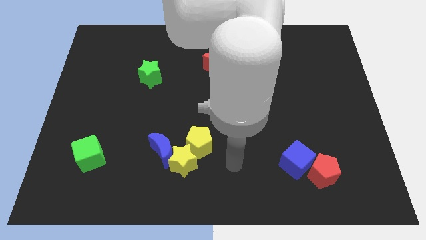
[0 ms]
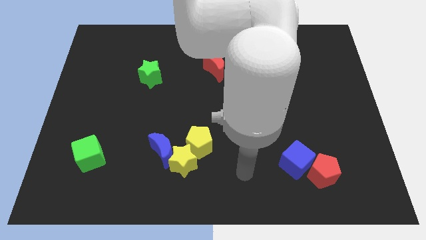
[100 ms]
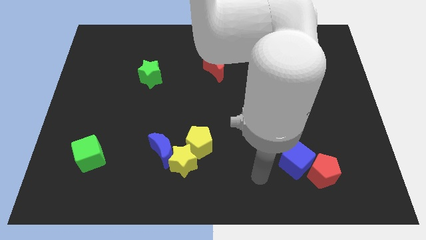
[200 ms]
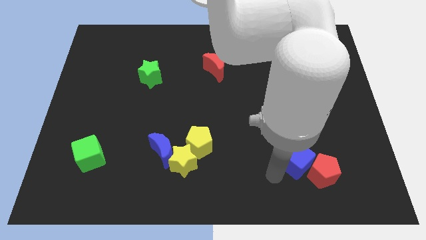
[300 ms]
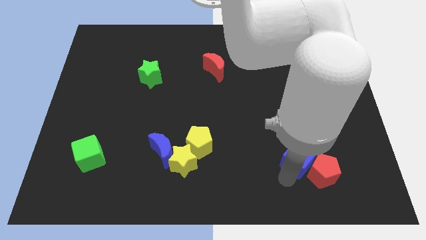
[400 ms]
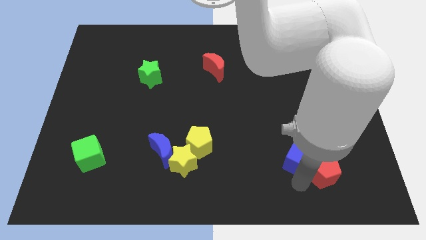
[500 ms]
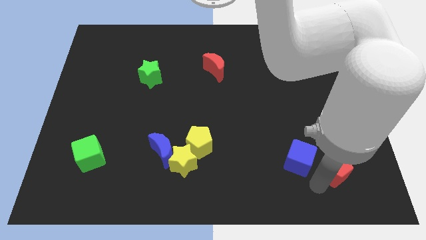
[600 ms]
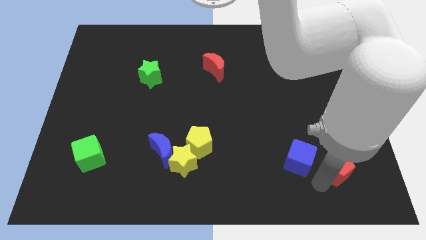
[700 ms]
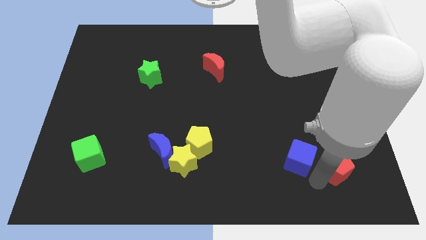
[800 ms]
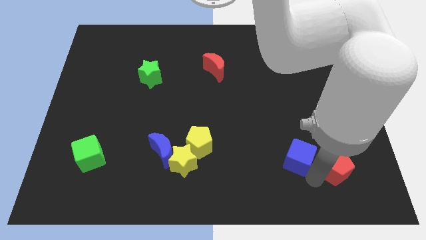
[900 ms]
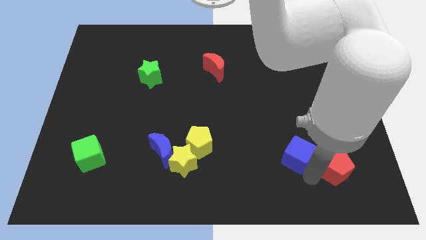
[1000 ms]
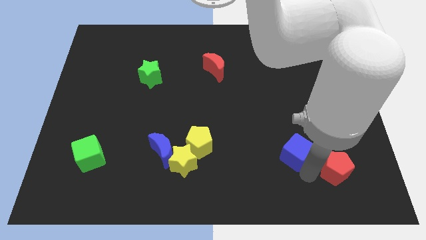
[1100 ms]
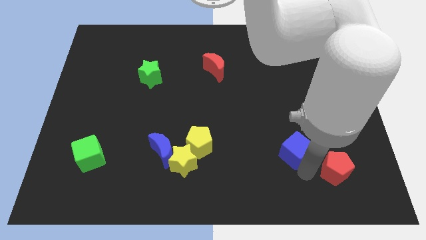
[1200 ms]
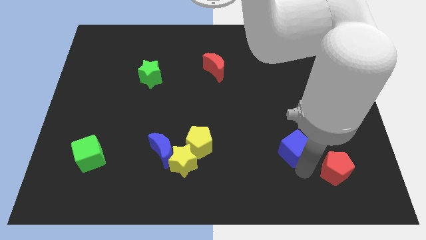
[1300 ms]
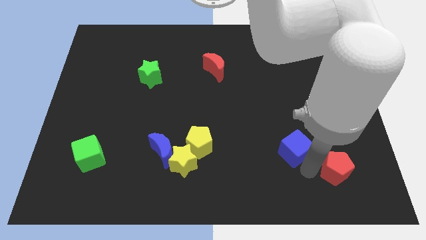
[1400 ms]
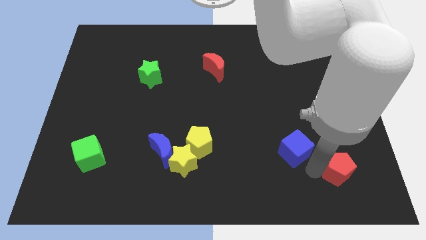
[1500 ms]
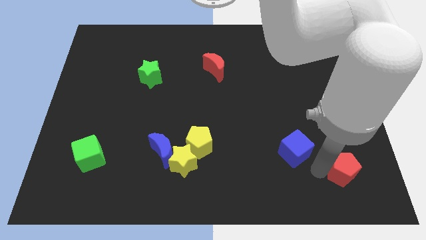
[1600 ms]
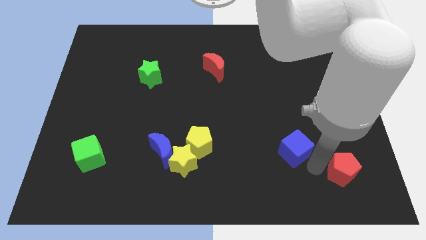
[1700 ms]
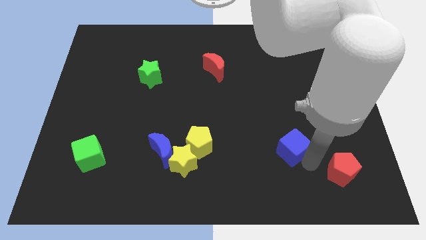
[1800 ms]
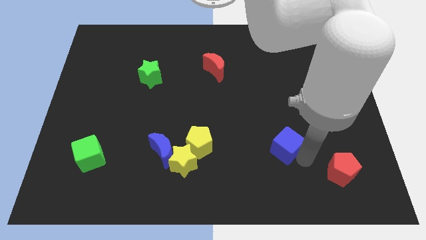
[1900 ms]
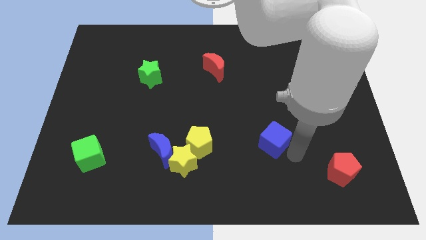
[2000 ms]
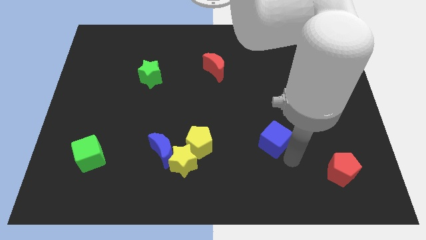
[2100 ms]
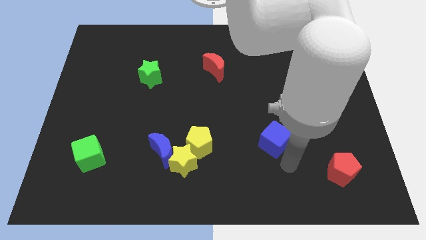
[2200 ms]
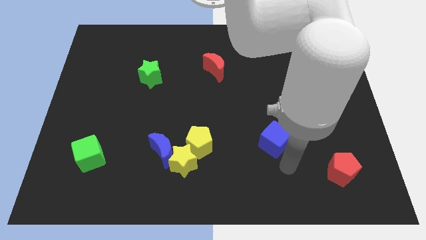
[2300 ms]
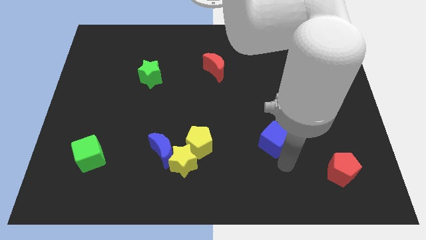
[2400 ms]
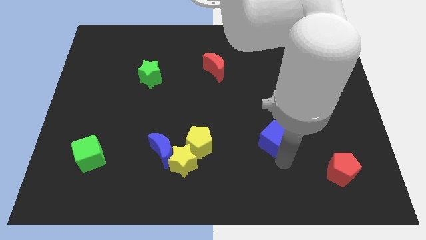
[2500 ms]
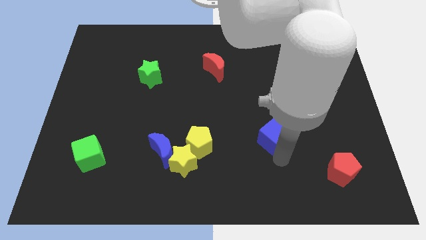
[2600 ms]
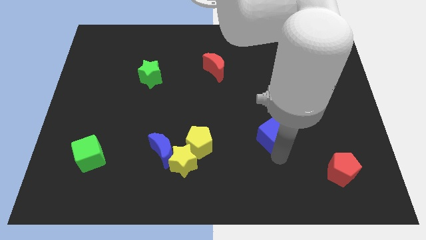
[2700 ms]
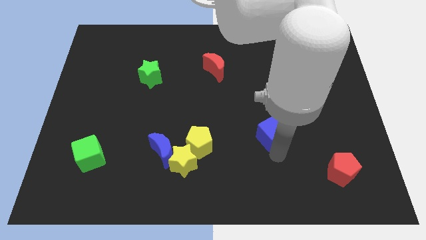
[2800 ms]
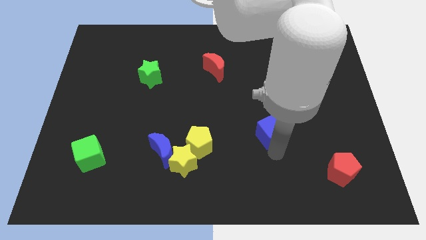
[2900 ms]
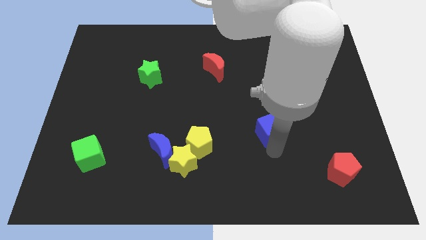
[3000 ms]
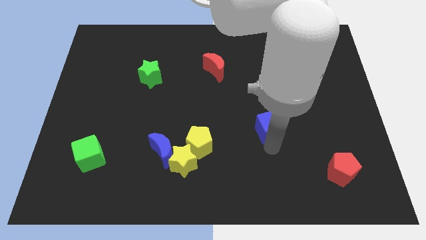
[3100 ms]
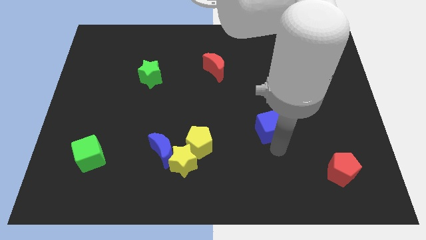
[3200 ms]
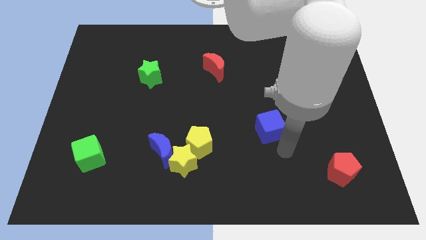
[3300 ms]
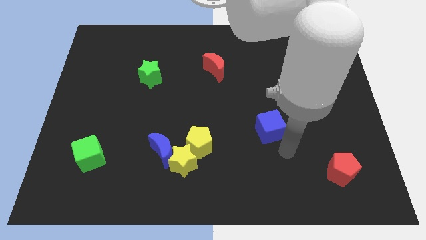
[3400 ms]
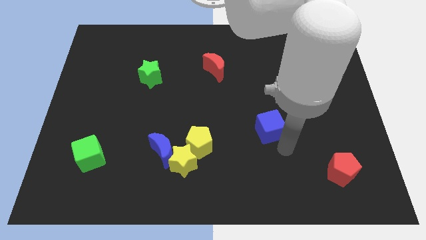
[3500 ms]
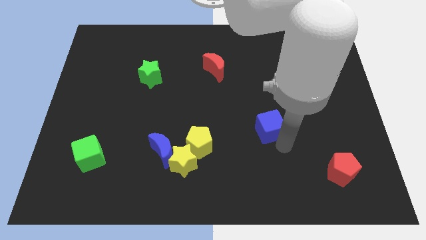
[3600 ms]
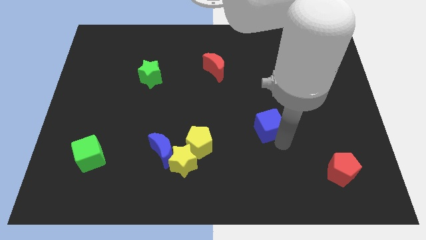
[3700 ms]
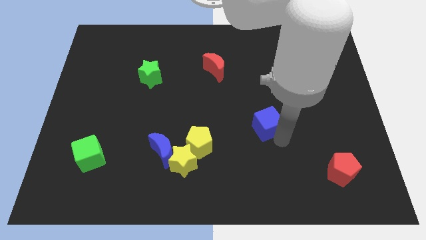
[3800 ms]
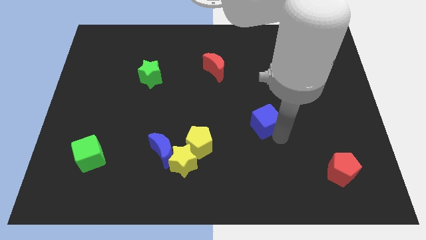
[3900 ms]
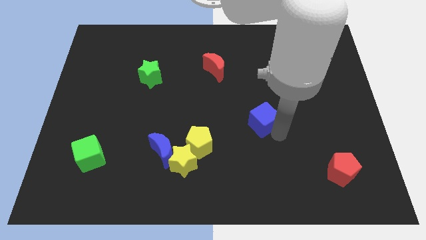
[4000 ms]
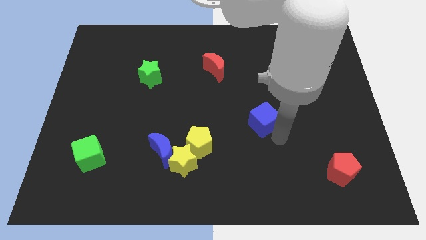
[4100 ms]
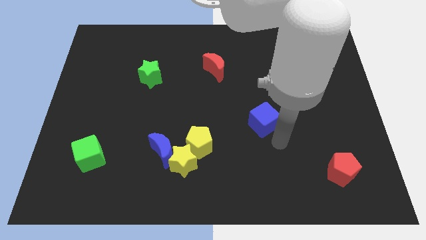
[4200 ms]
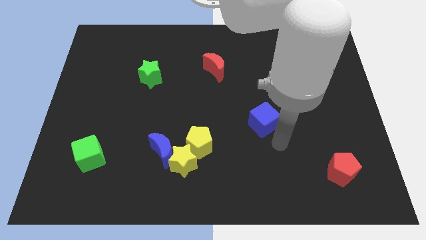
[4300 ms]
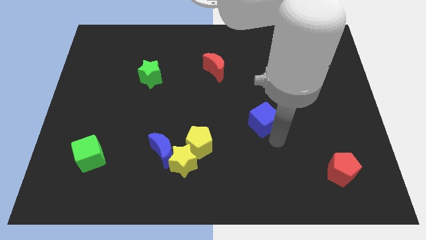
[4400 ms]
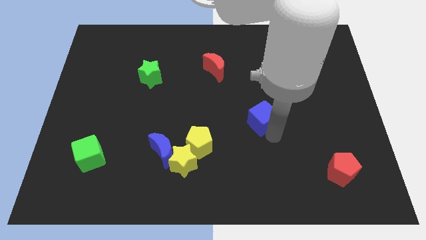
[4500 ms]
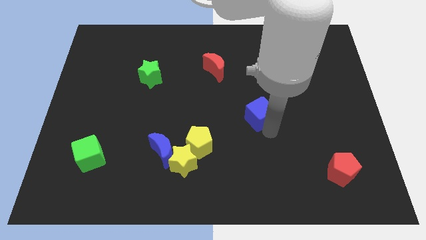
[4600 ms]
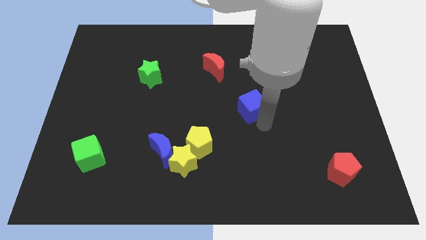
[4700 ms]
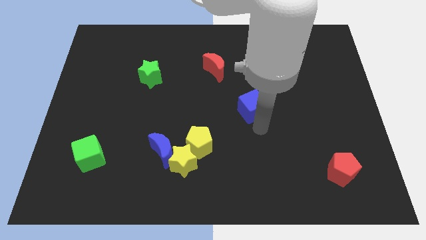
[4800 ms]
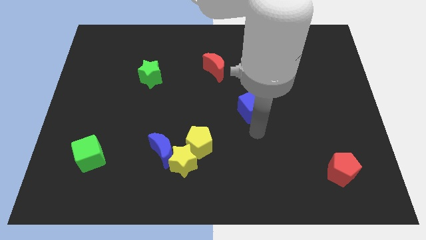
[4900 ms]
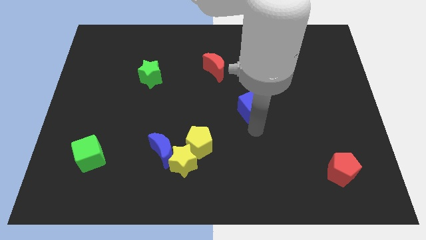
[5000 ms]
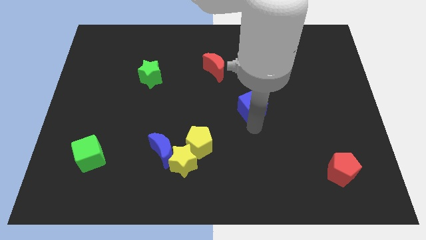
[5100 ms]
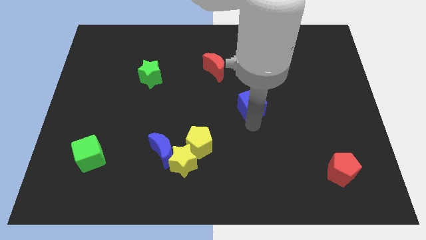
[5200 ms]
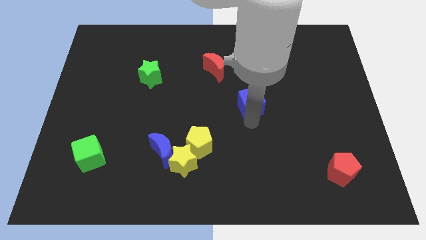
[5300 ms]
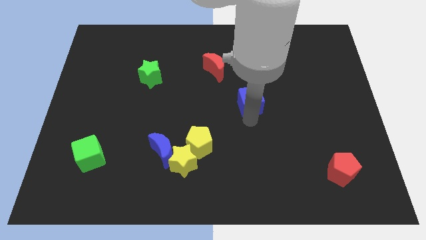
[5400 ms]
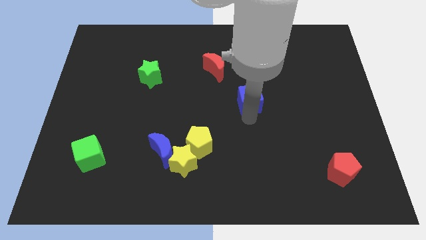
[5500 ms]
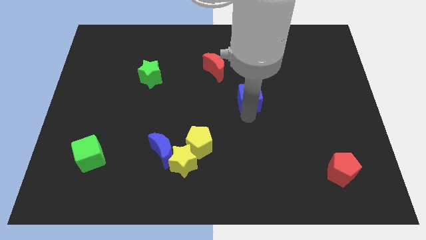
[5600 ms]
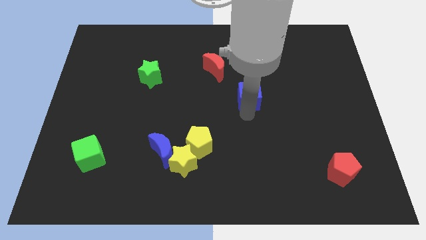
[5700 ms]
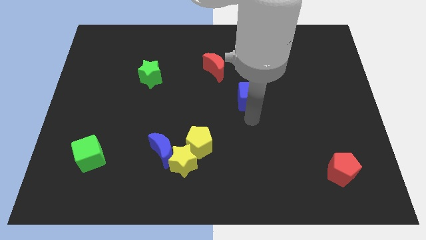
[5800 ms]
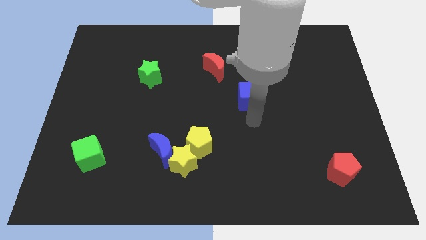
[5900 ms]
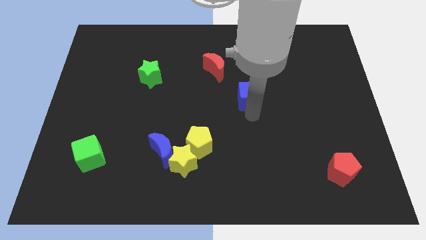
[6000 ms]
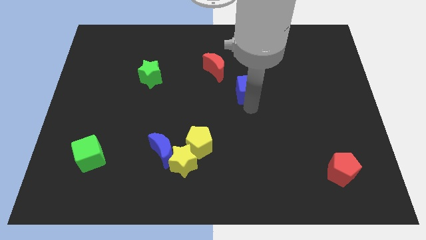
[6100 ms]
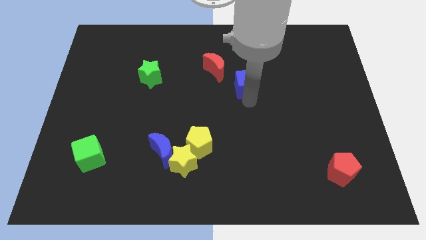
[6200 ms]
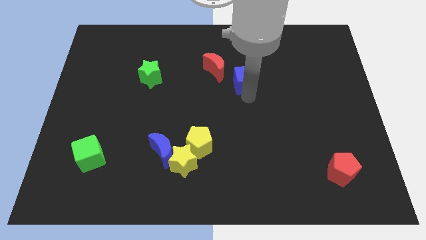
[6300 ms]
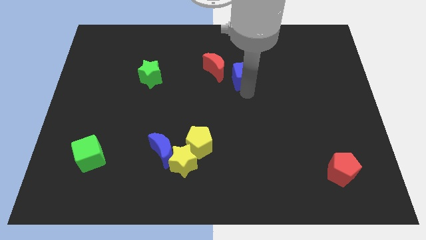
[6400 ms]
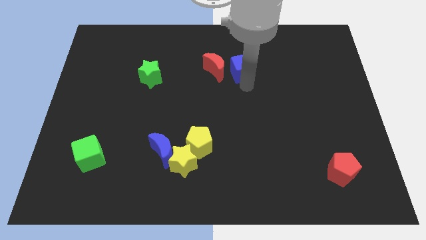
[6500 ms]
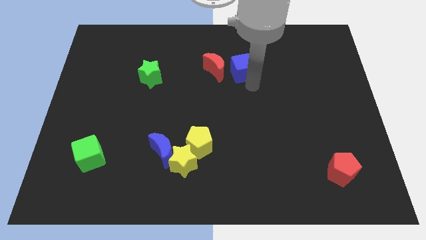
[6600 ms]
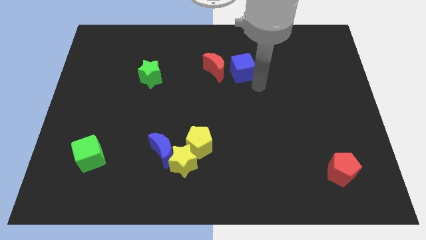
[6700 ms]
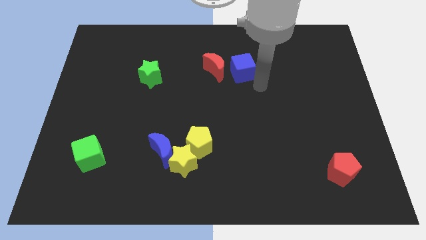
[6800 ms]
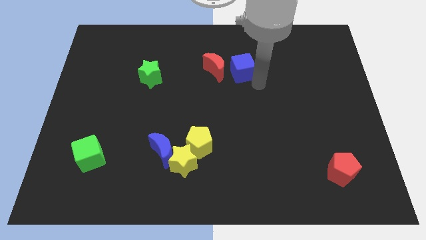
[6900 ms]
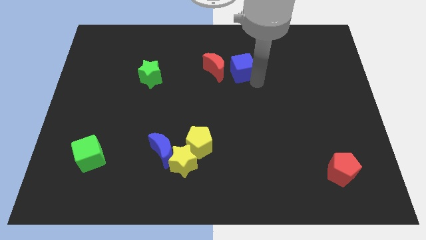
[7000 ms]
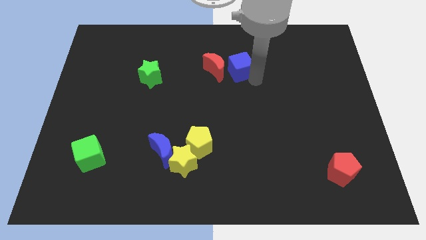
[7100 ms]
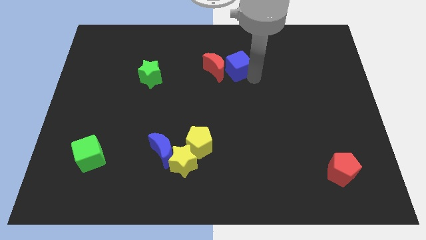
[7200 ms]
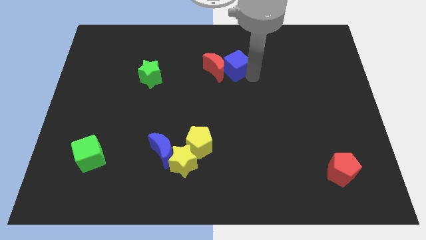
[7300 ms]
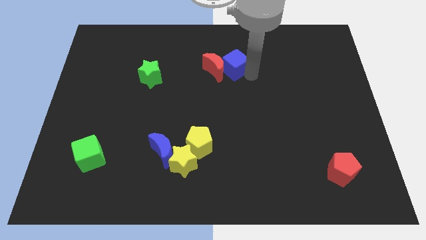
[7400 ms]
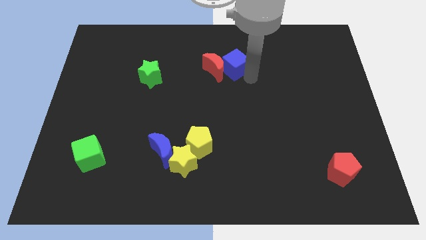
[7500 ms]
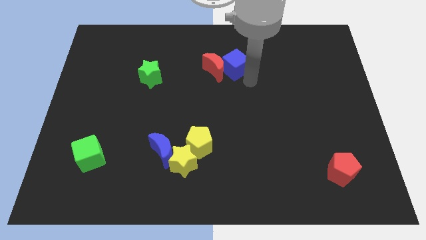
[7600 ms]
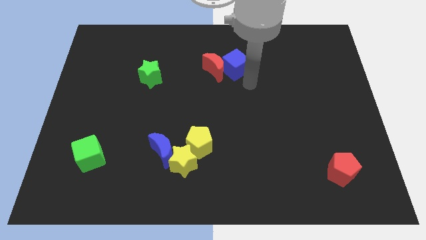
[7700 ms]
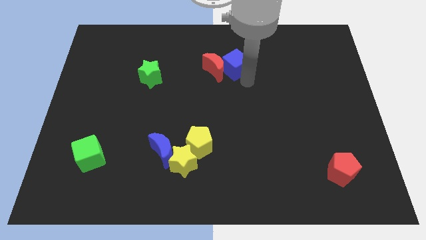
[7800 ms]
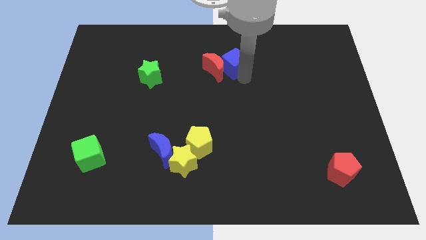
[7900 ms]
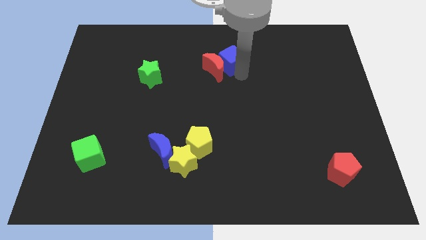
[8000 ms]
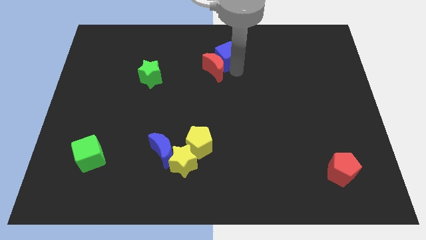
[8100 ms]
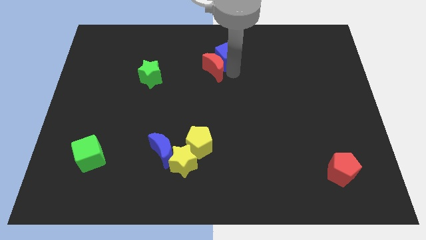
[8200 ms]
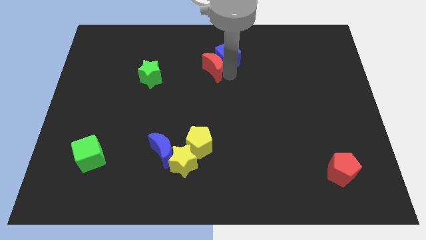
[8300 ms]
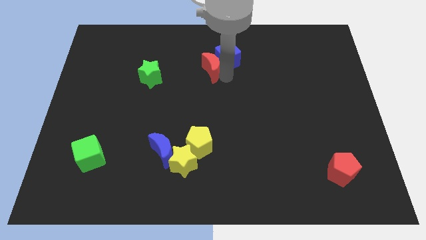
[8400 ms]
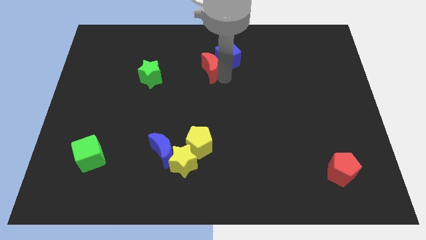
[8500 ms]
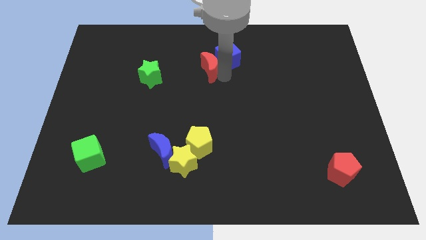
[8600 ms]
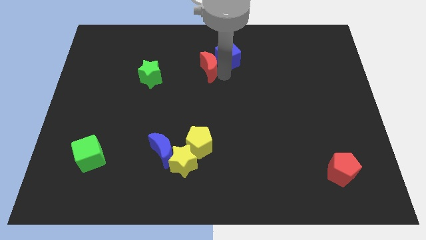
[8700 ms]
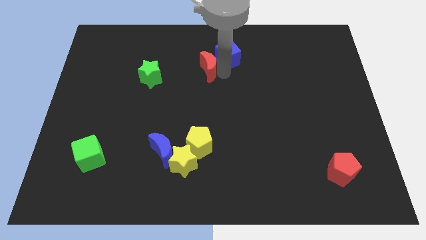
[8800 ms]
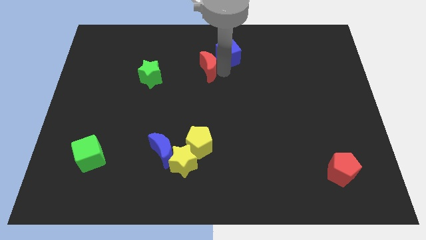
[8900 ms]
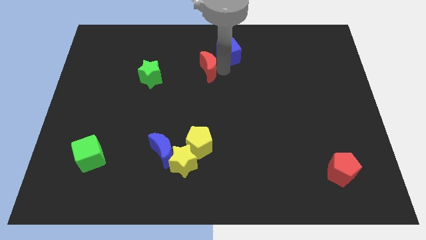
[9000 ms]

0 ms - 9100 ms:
put the blue cube to the towards your base
